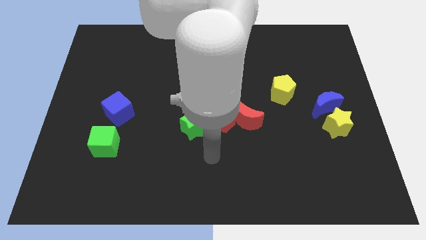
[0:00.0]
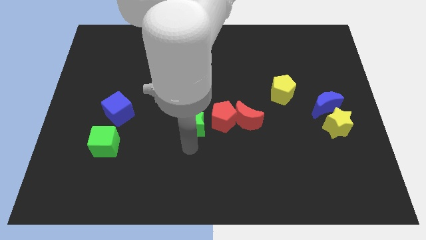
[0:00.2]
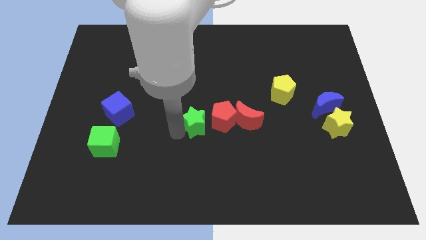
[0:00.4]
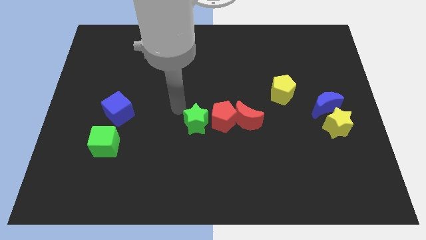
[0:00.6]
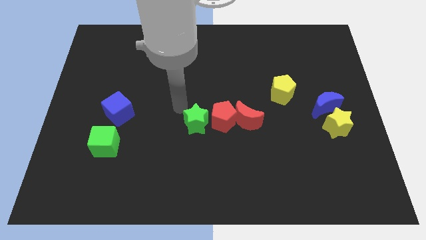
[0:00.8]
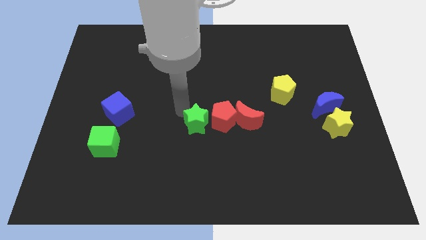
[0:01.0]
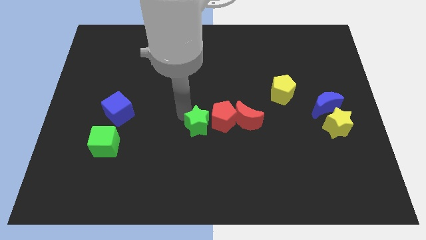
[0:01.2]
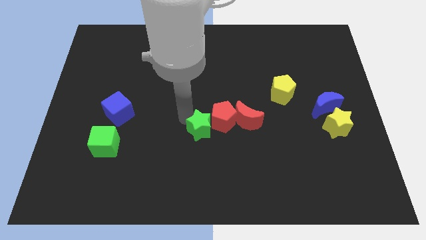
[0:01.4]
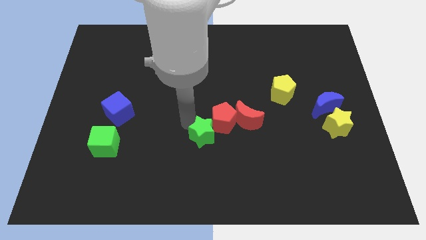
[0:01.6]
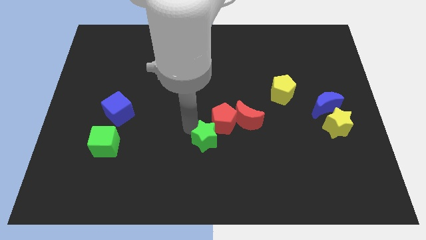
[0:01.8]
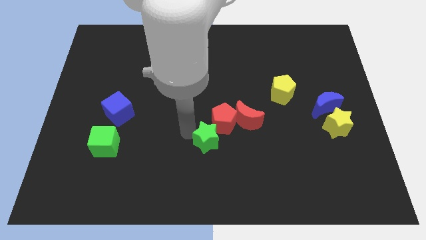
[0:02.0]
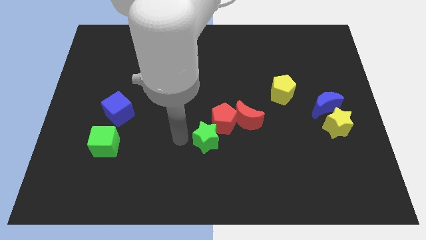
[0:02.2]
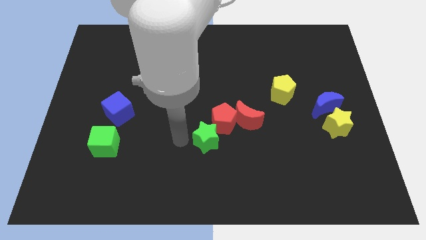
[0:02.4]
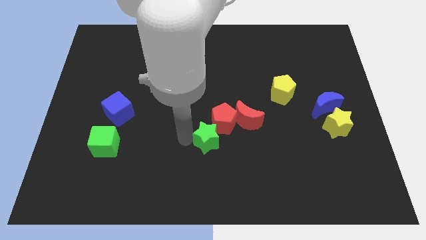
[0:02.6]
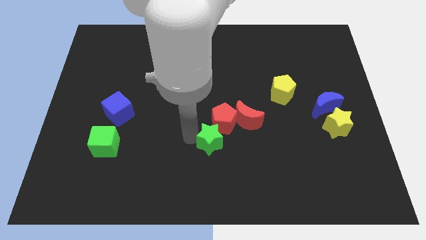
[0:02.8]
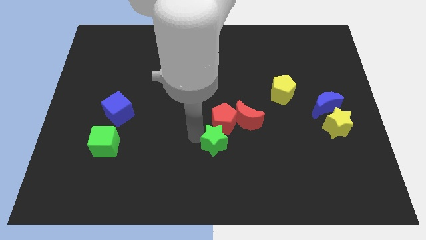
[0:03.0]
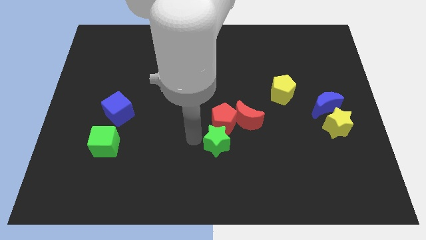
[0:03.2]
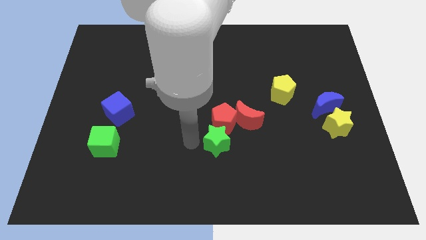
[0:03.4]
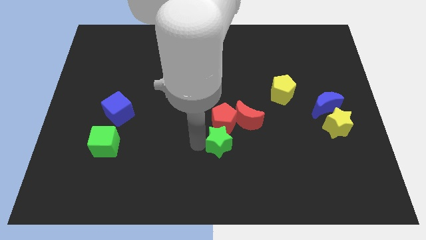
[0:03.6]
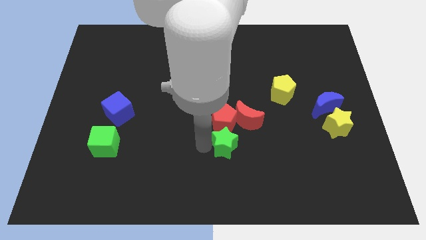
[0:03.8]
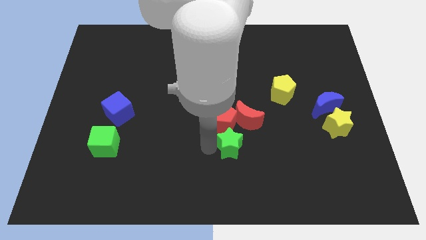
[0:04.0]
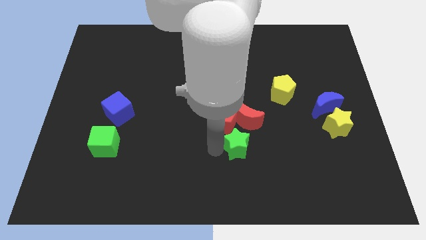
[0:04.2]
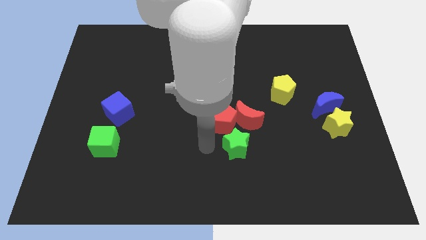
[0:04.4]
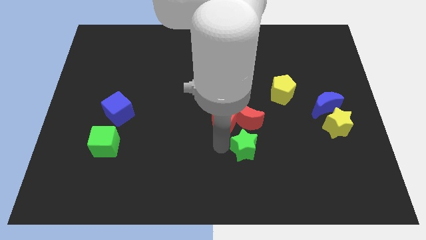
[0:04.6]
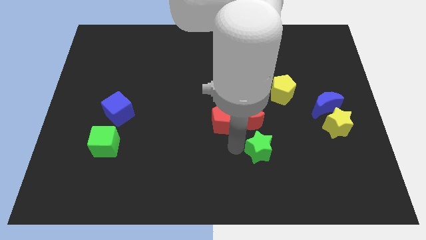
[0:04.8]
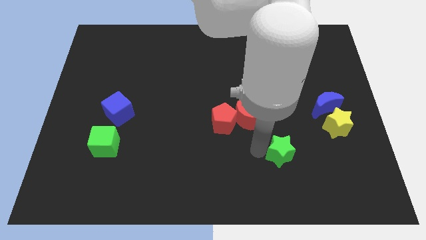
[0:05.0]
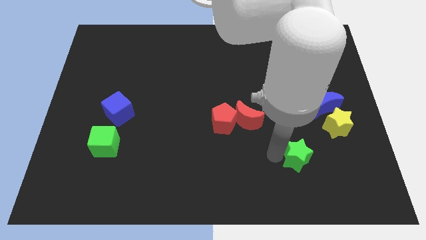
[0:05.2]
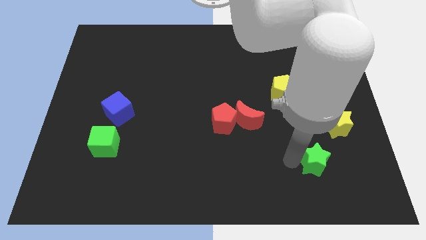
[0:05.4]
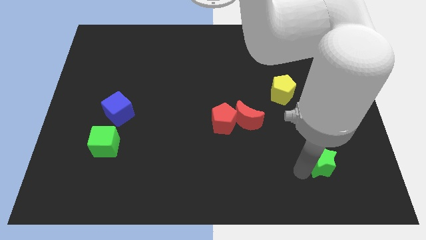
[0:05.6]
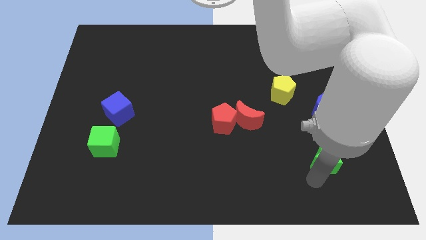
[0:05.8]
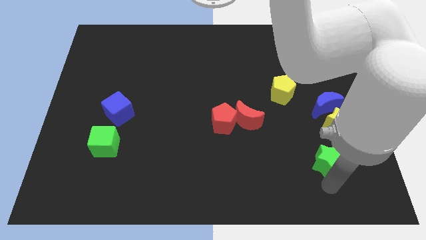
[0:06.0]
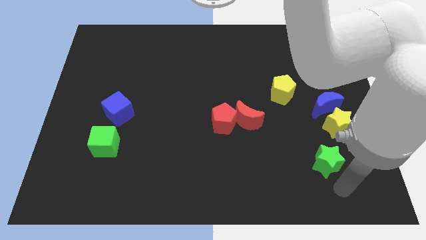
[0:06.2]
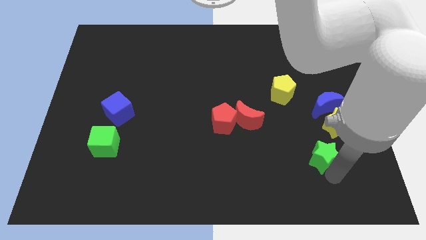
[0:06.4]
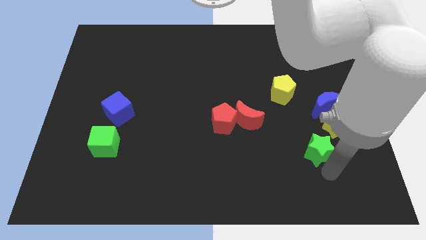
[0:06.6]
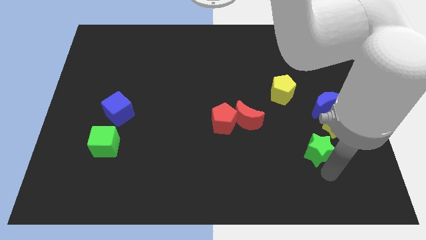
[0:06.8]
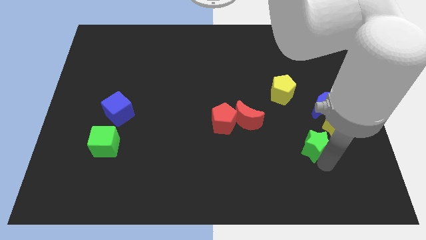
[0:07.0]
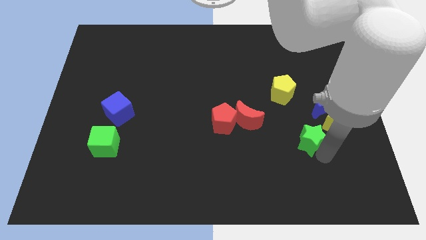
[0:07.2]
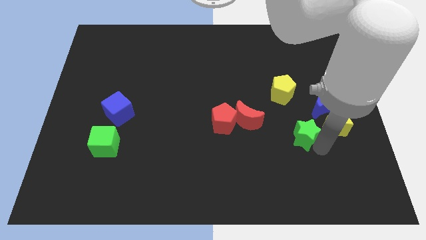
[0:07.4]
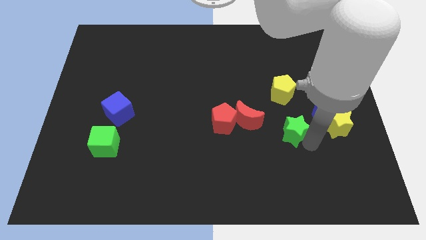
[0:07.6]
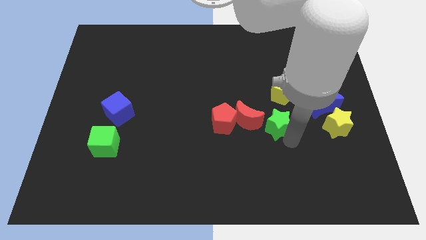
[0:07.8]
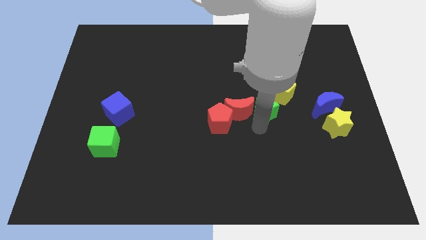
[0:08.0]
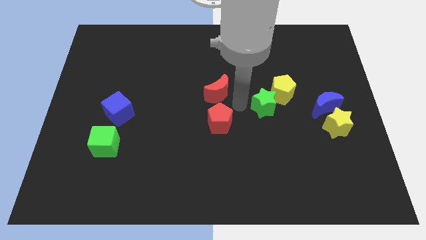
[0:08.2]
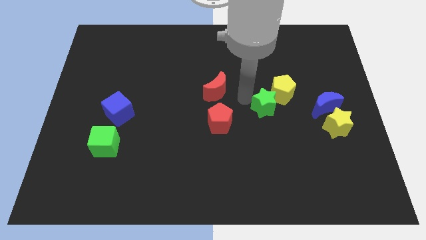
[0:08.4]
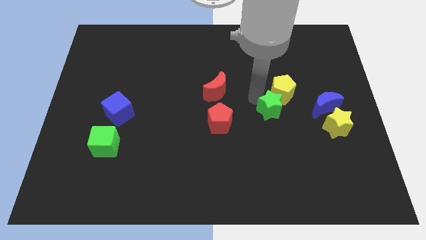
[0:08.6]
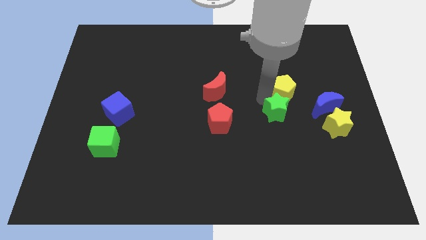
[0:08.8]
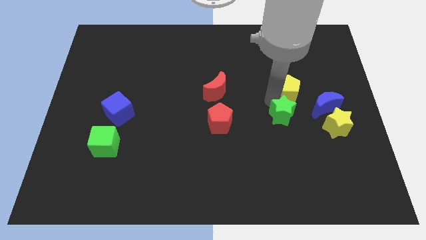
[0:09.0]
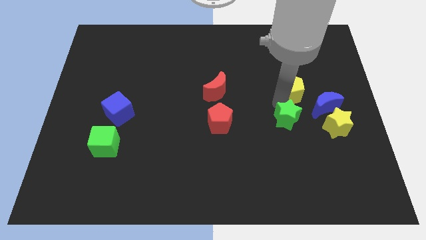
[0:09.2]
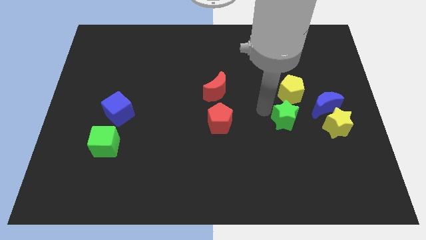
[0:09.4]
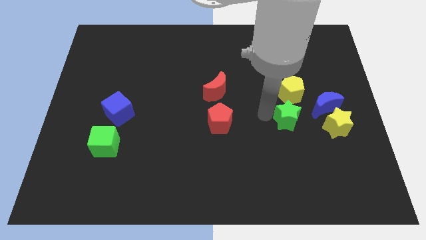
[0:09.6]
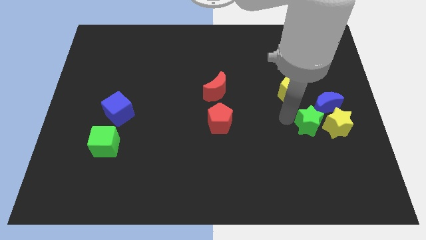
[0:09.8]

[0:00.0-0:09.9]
move the green star to the yellow star

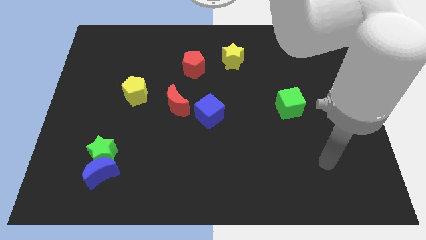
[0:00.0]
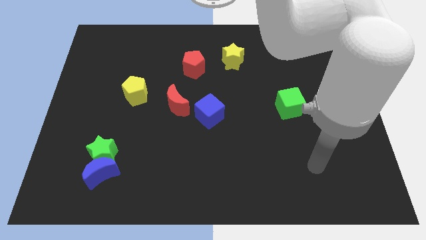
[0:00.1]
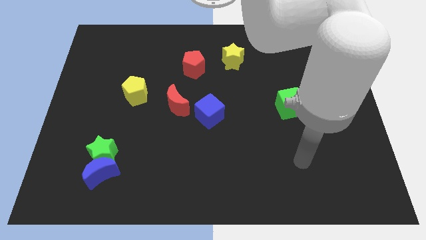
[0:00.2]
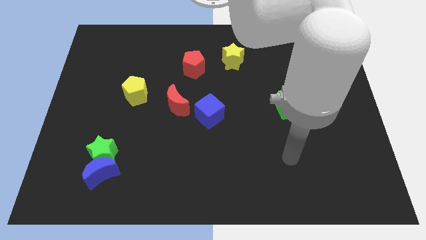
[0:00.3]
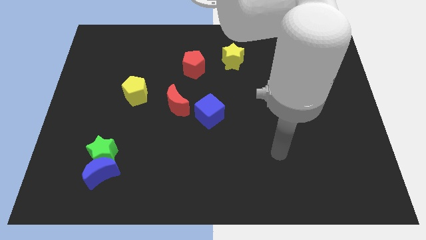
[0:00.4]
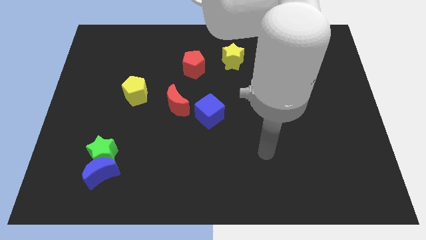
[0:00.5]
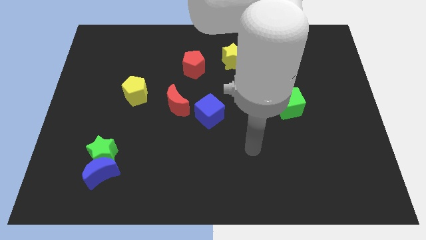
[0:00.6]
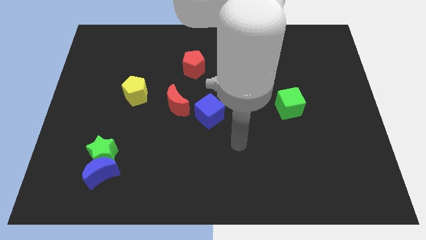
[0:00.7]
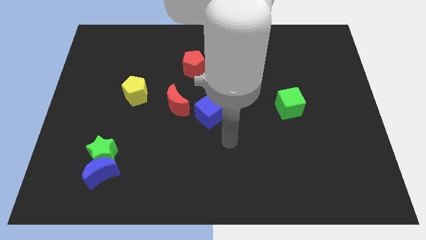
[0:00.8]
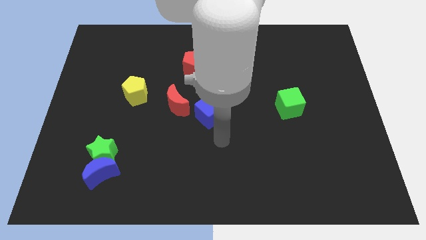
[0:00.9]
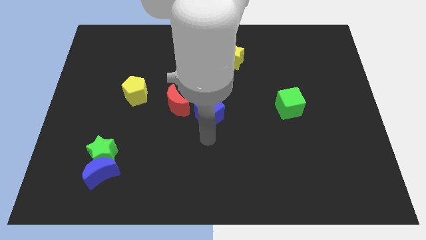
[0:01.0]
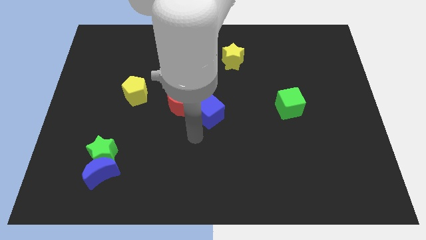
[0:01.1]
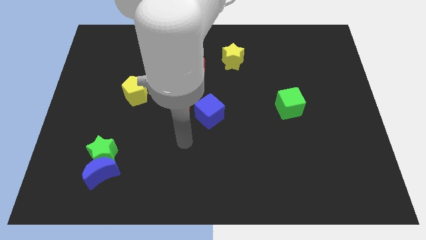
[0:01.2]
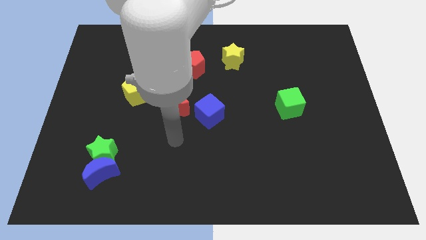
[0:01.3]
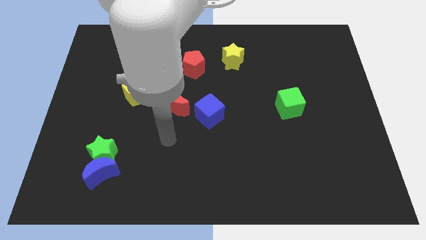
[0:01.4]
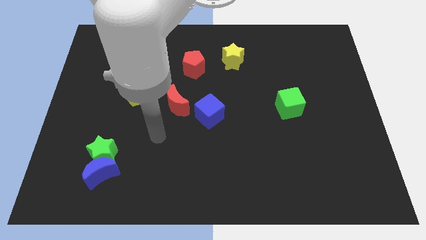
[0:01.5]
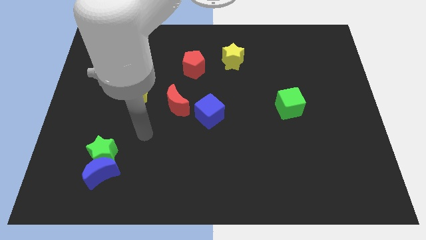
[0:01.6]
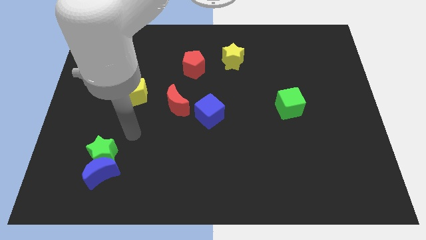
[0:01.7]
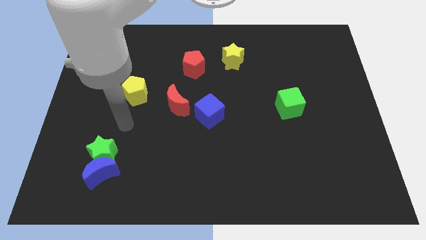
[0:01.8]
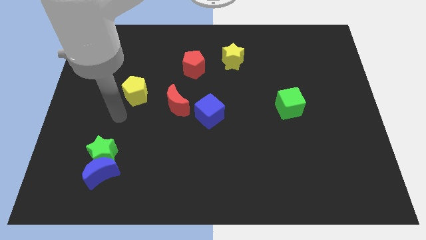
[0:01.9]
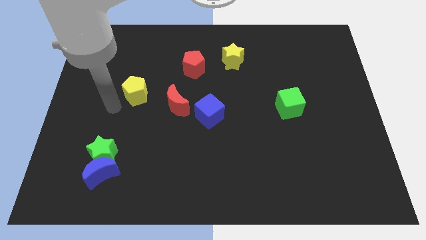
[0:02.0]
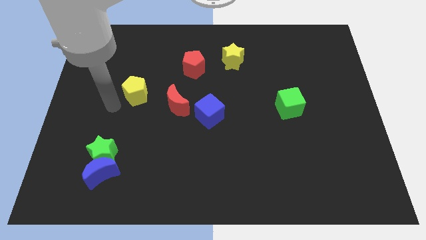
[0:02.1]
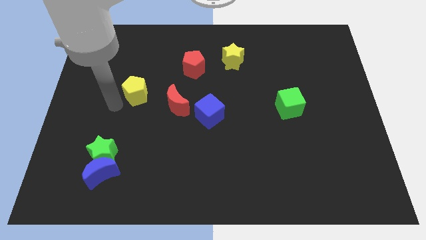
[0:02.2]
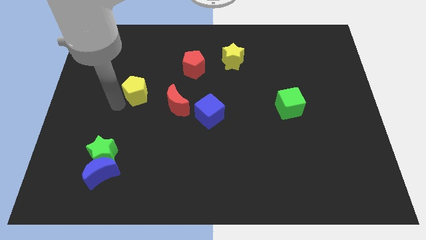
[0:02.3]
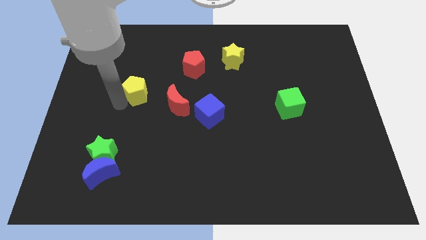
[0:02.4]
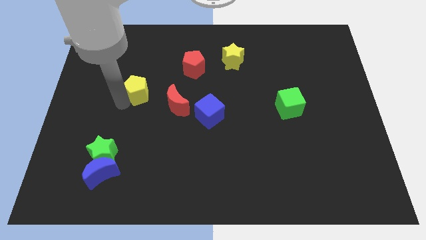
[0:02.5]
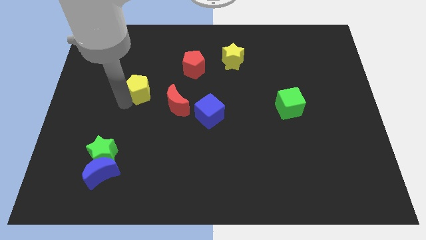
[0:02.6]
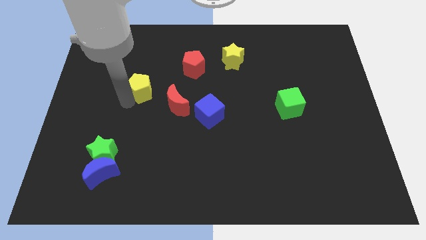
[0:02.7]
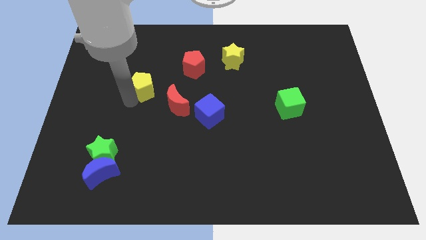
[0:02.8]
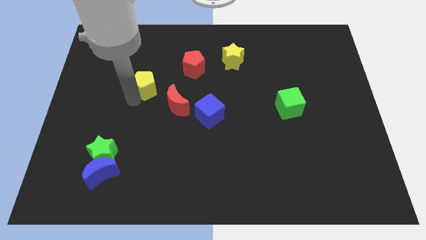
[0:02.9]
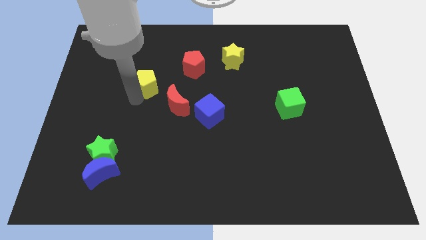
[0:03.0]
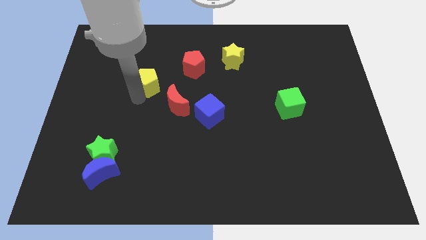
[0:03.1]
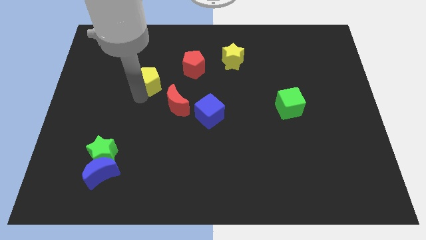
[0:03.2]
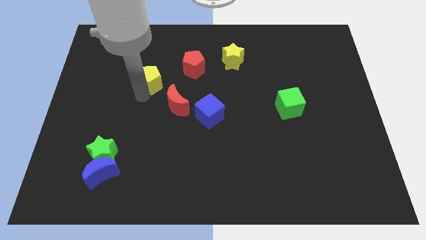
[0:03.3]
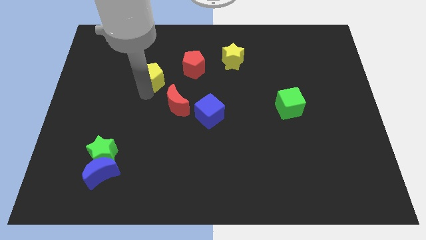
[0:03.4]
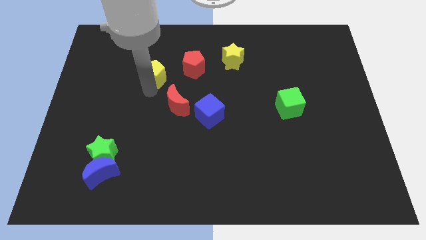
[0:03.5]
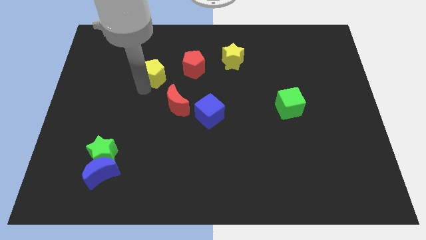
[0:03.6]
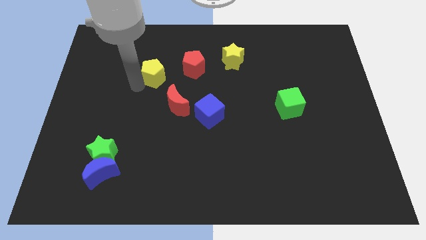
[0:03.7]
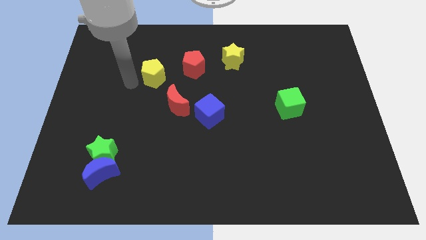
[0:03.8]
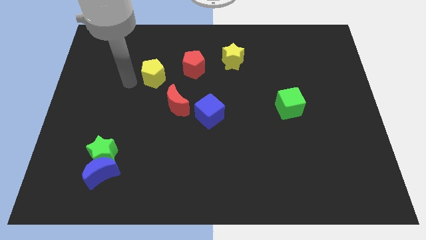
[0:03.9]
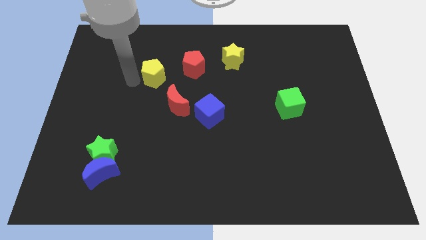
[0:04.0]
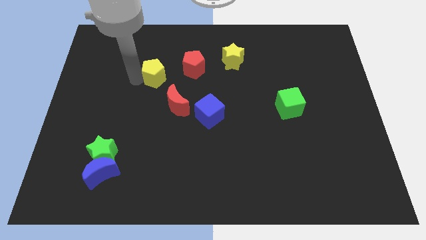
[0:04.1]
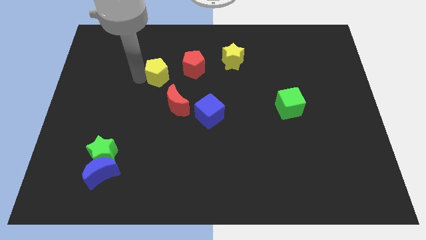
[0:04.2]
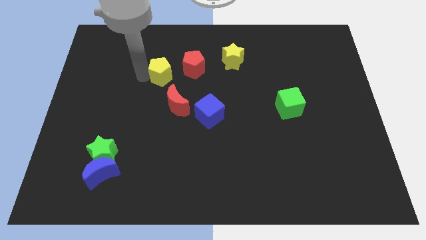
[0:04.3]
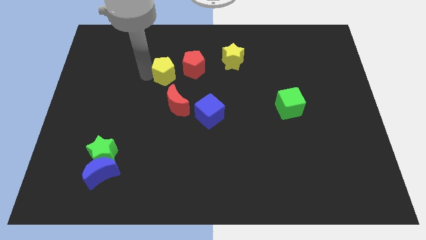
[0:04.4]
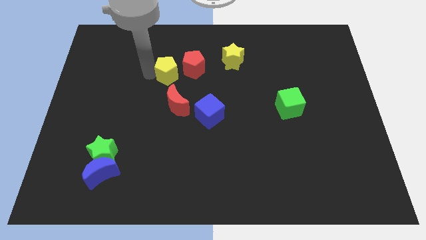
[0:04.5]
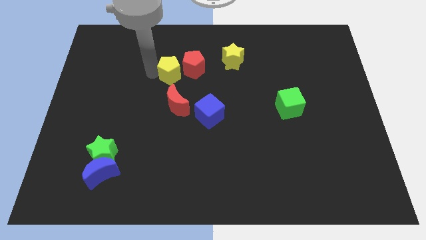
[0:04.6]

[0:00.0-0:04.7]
push the yellow pentagon next to the red pentagon
